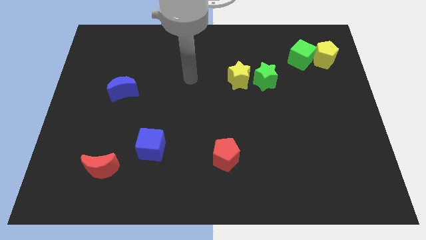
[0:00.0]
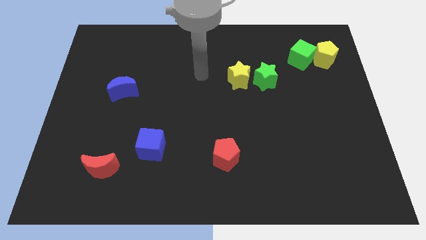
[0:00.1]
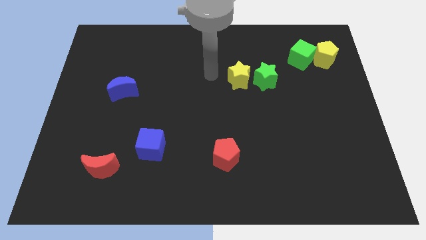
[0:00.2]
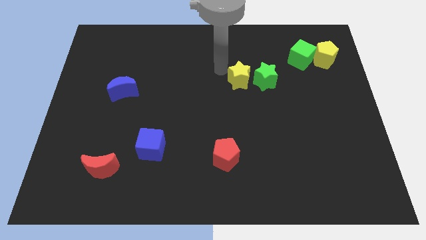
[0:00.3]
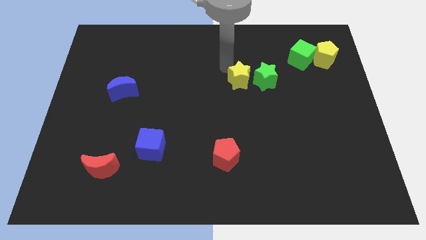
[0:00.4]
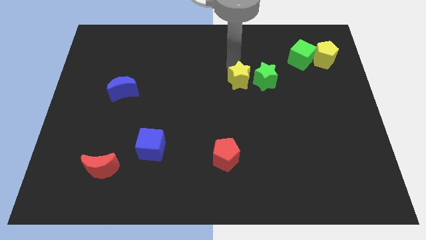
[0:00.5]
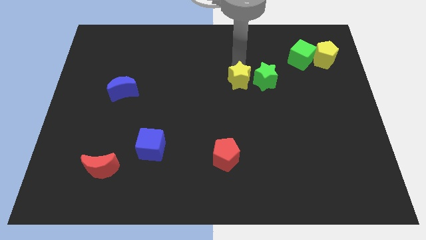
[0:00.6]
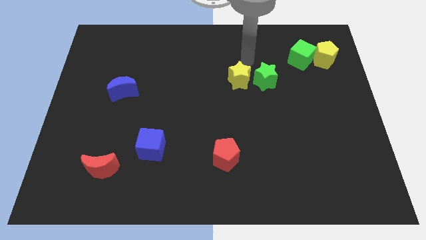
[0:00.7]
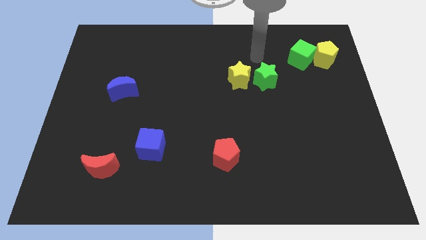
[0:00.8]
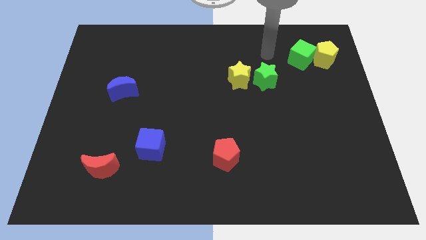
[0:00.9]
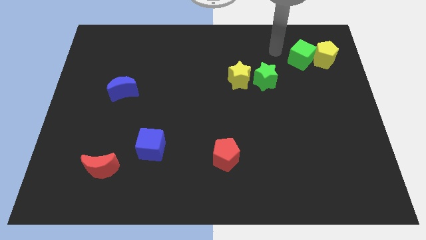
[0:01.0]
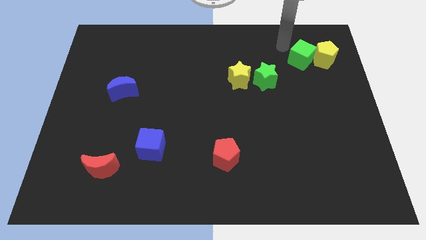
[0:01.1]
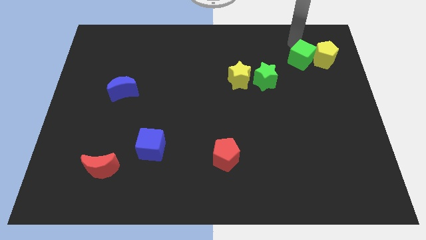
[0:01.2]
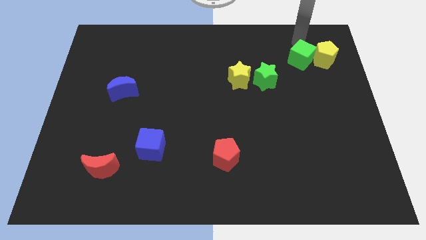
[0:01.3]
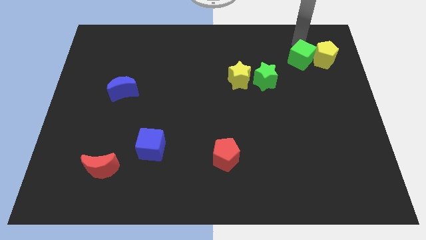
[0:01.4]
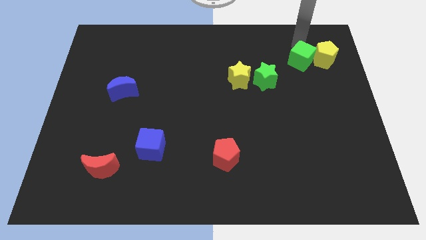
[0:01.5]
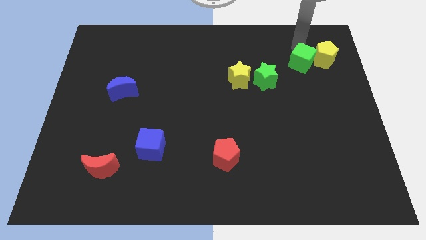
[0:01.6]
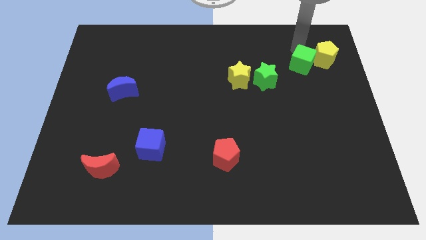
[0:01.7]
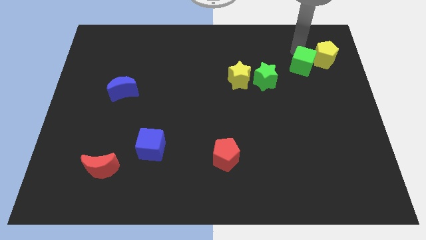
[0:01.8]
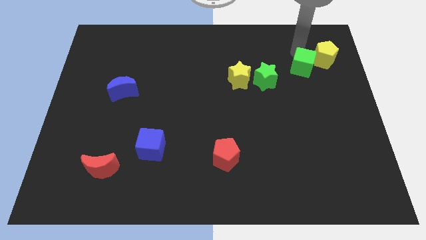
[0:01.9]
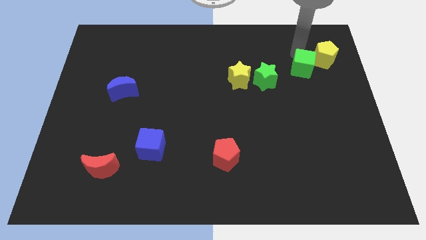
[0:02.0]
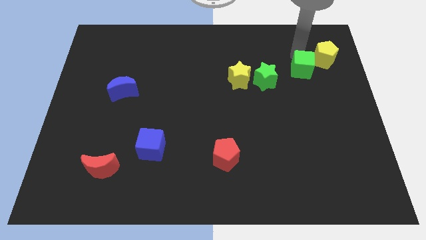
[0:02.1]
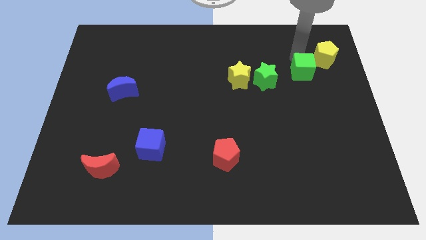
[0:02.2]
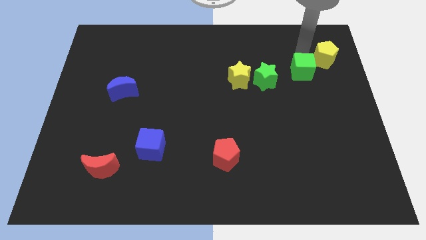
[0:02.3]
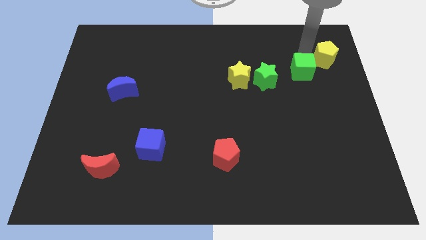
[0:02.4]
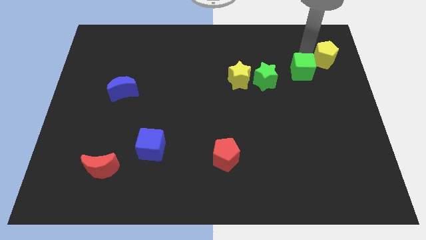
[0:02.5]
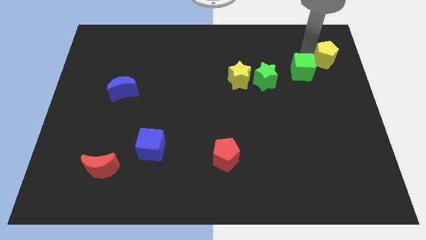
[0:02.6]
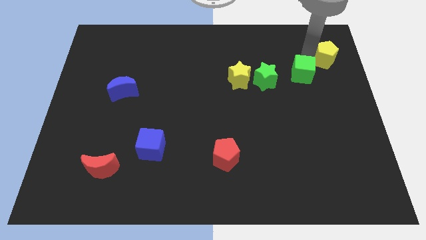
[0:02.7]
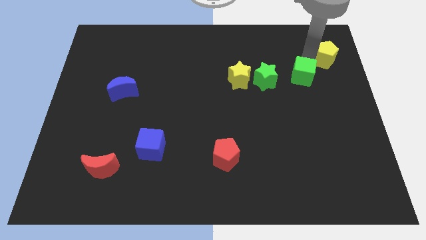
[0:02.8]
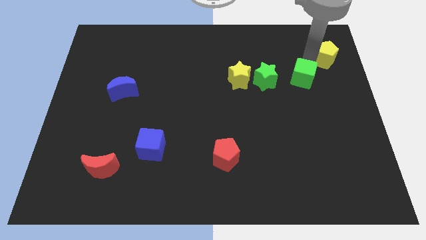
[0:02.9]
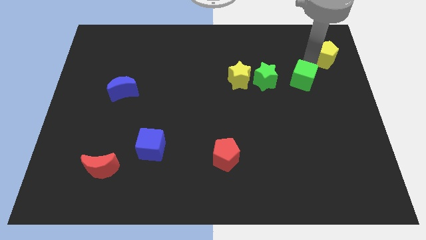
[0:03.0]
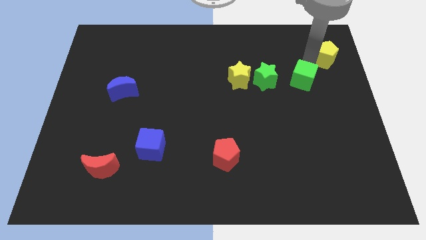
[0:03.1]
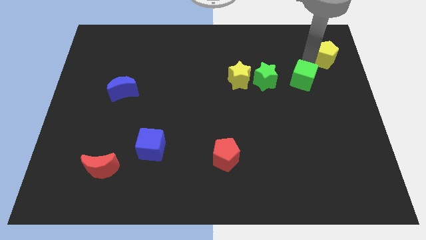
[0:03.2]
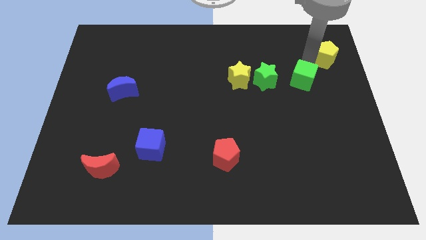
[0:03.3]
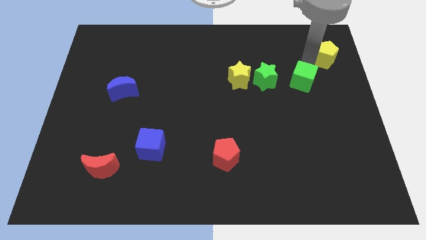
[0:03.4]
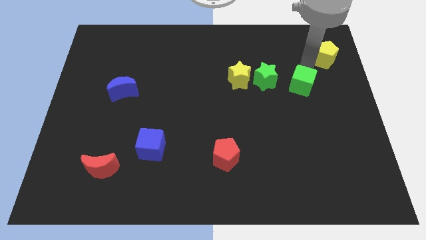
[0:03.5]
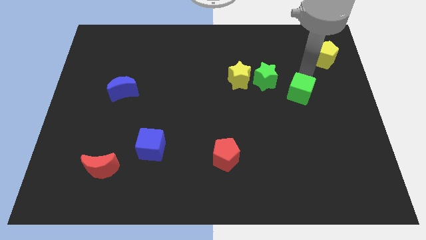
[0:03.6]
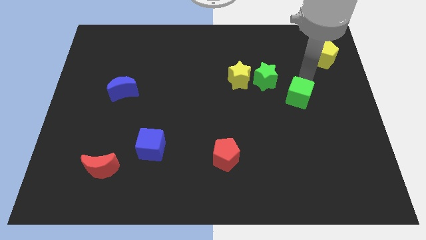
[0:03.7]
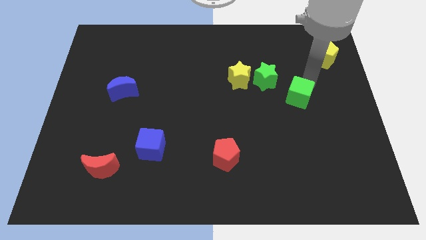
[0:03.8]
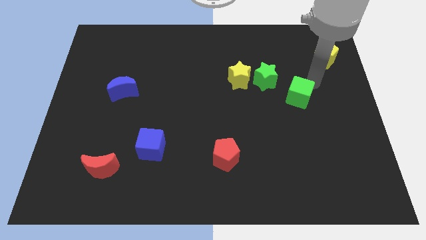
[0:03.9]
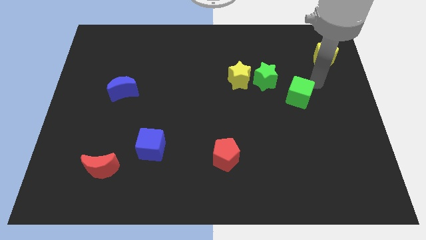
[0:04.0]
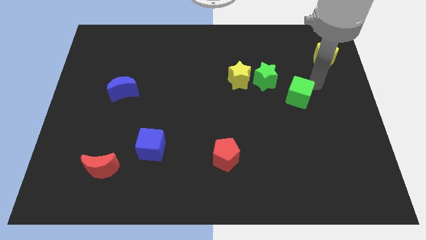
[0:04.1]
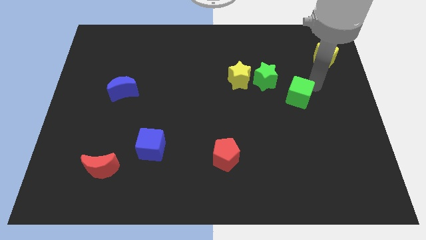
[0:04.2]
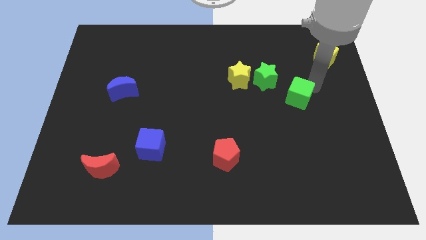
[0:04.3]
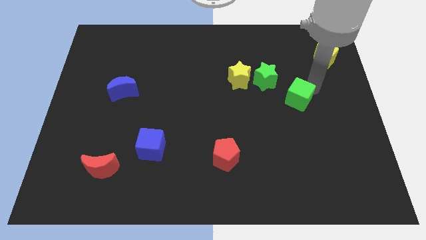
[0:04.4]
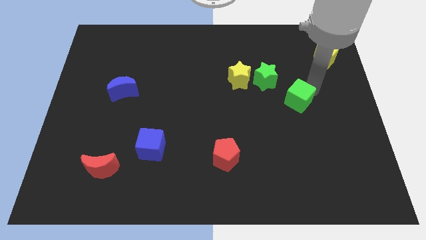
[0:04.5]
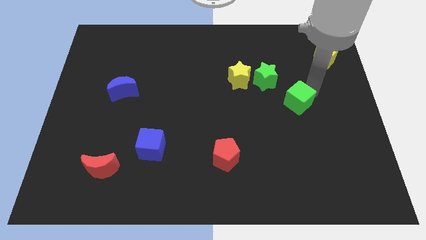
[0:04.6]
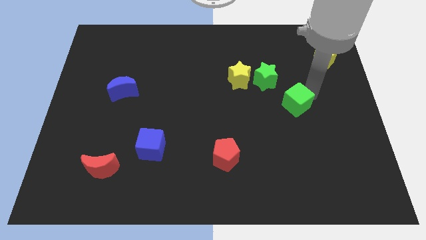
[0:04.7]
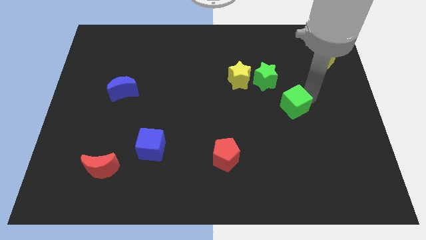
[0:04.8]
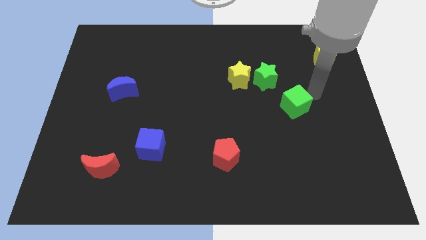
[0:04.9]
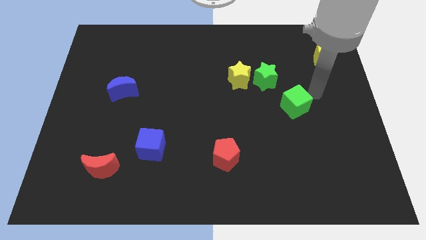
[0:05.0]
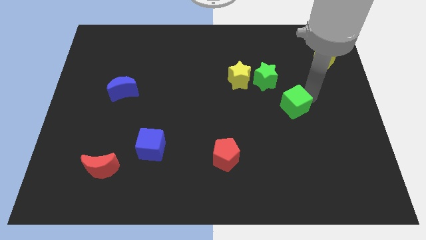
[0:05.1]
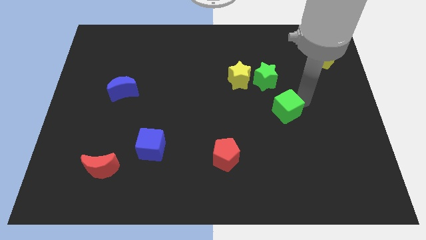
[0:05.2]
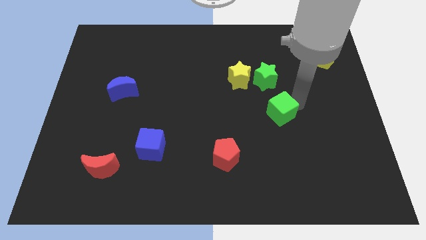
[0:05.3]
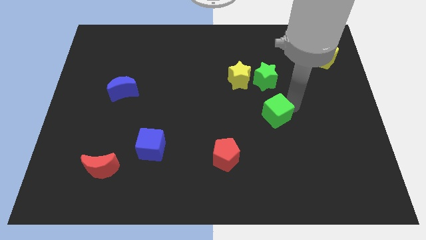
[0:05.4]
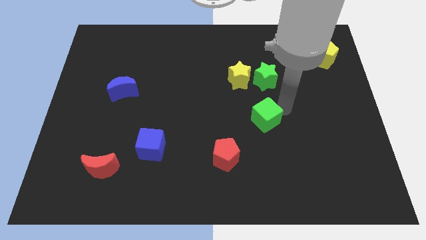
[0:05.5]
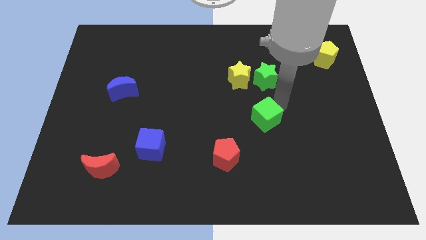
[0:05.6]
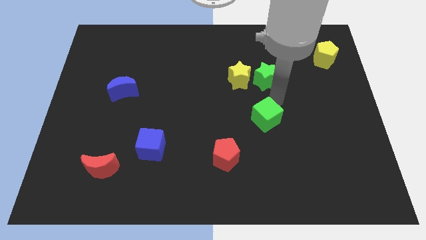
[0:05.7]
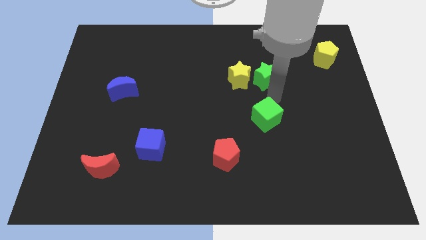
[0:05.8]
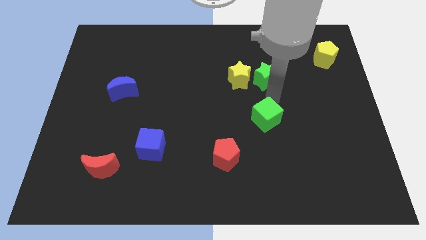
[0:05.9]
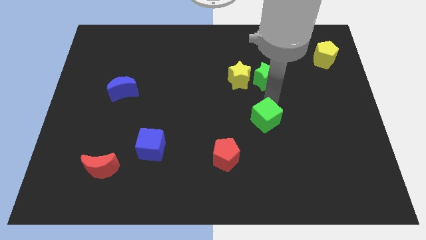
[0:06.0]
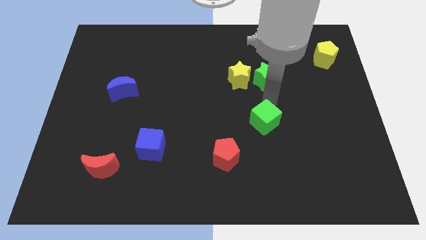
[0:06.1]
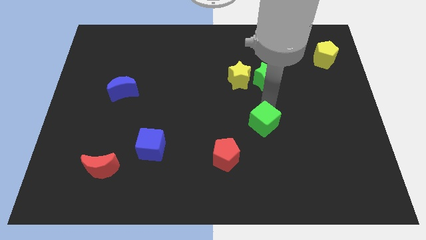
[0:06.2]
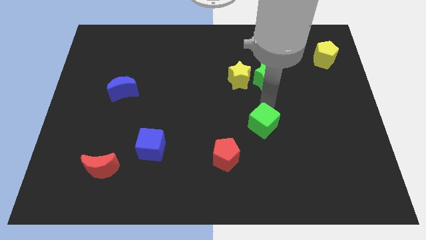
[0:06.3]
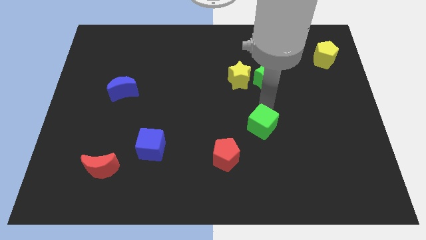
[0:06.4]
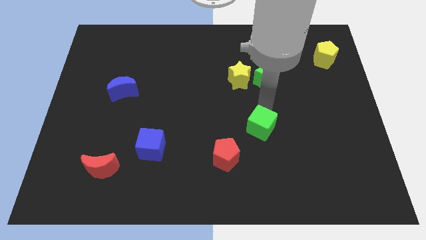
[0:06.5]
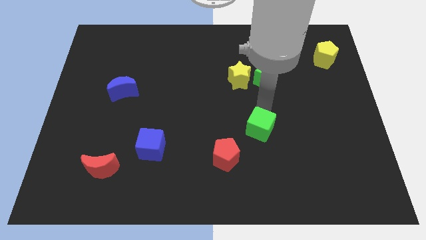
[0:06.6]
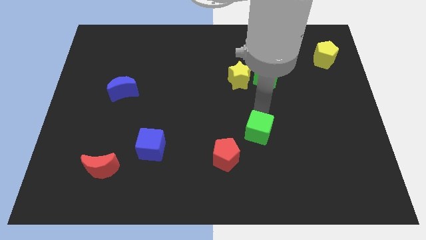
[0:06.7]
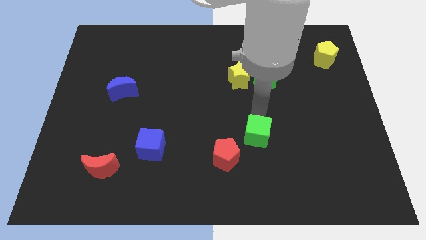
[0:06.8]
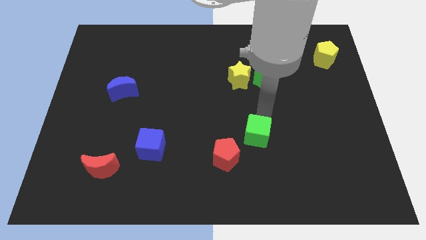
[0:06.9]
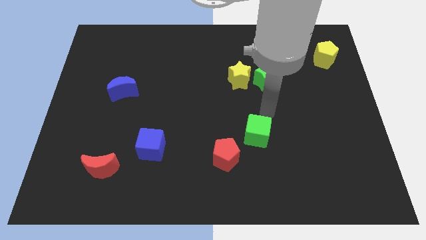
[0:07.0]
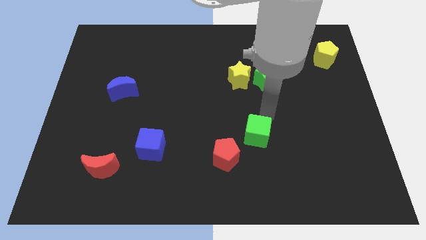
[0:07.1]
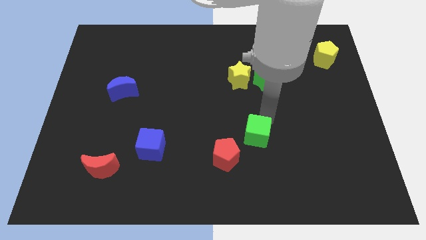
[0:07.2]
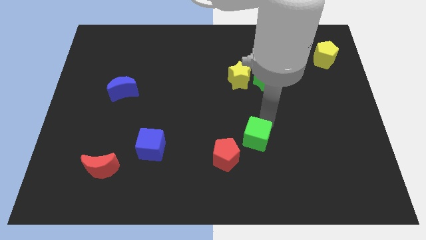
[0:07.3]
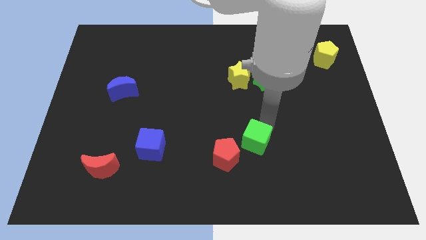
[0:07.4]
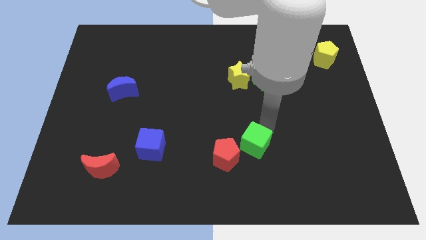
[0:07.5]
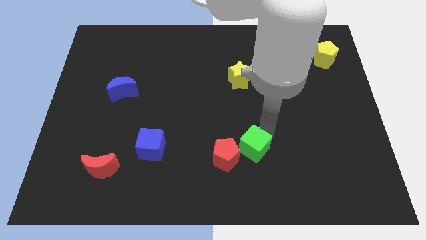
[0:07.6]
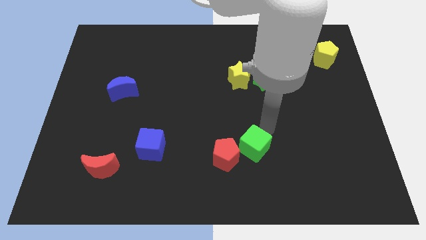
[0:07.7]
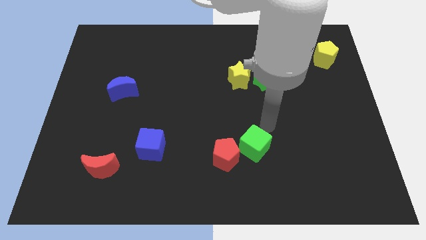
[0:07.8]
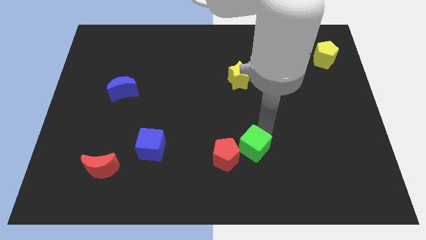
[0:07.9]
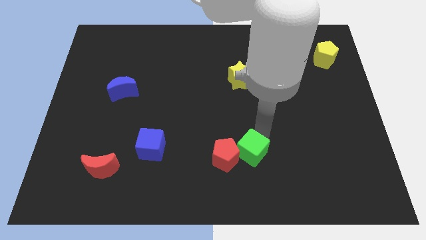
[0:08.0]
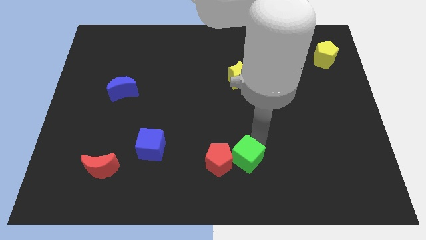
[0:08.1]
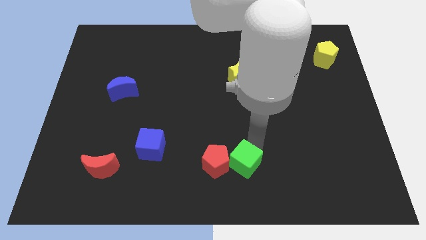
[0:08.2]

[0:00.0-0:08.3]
put the green cube to the bottom
